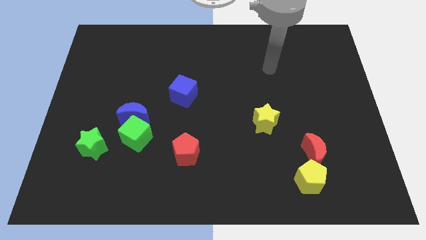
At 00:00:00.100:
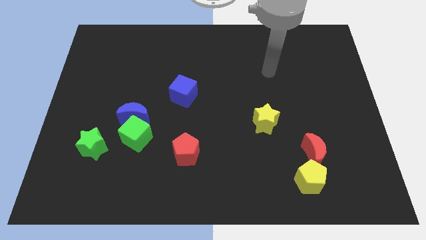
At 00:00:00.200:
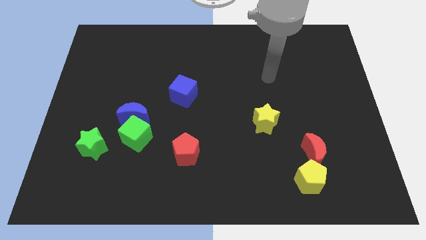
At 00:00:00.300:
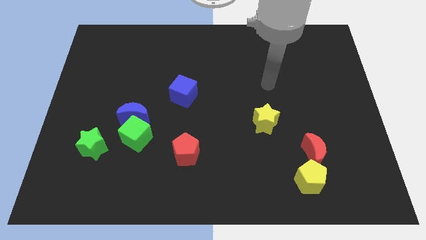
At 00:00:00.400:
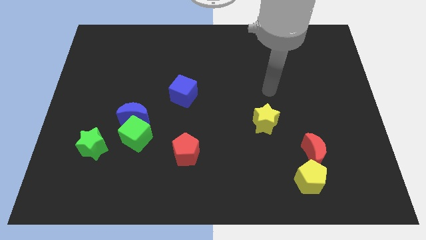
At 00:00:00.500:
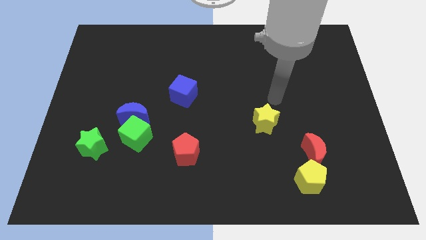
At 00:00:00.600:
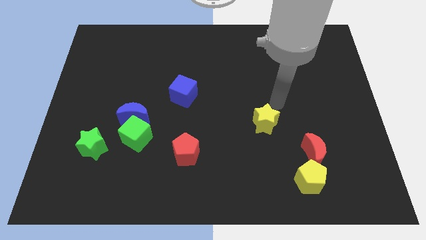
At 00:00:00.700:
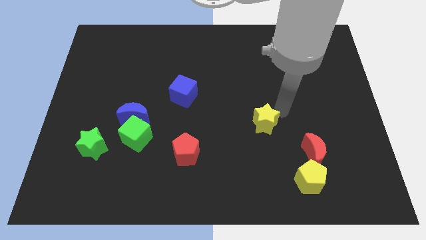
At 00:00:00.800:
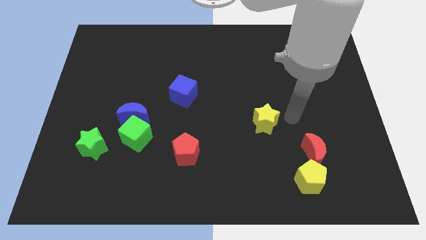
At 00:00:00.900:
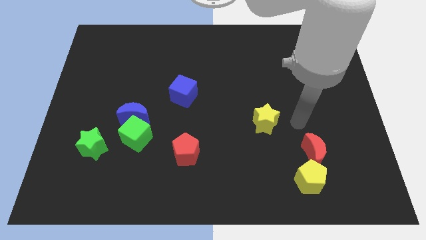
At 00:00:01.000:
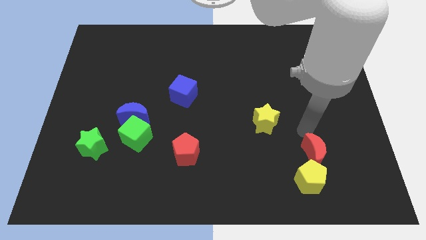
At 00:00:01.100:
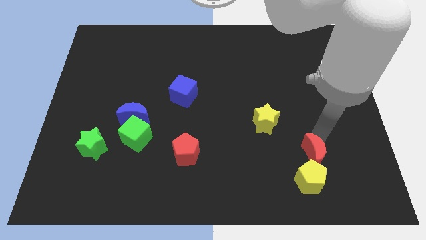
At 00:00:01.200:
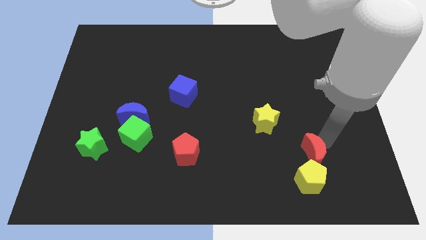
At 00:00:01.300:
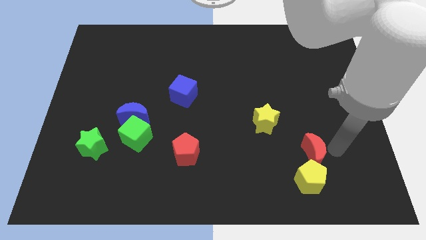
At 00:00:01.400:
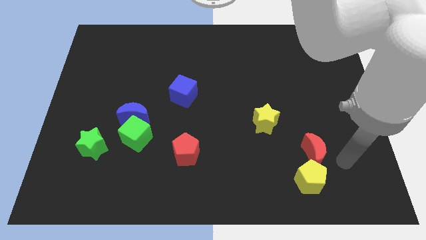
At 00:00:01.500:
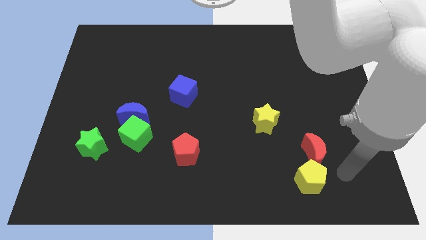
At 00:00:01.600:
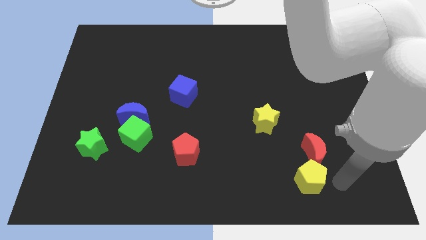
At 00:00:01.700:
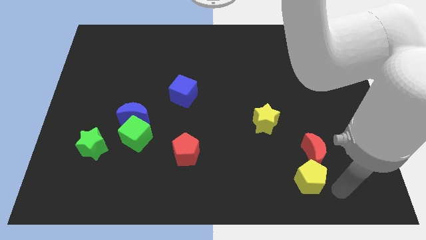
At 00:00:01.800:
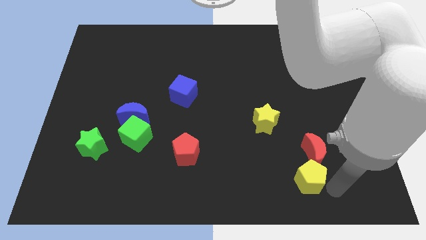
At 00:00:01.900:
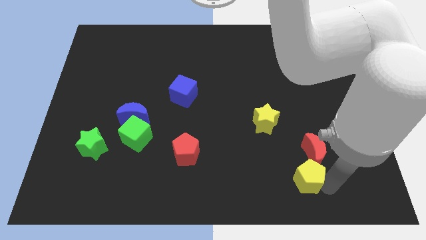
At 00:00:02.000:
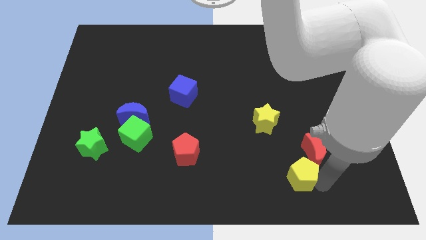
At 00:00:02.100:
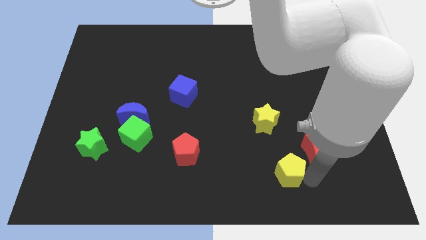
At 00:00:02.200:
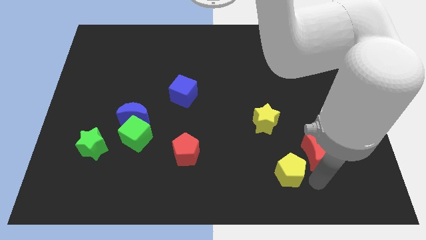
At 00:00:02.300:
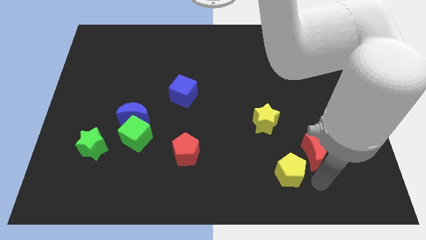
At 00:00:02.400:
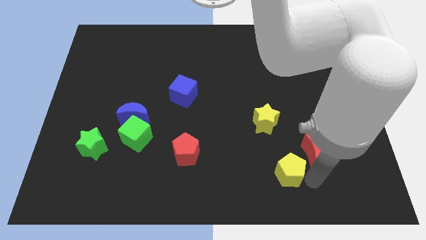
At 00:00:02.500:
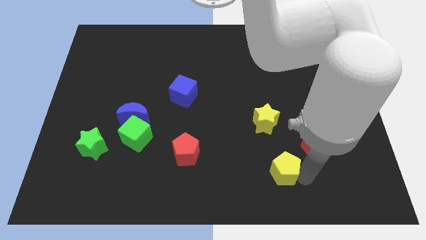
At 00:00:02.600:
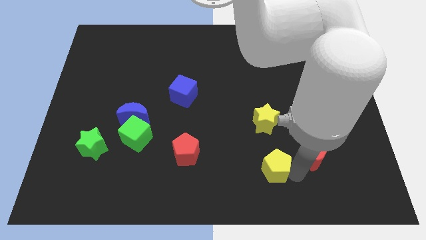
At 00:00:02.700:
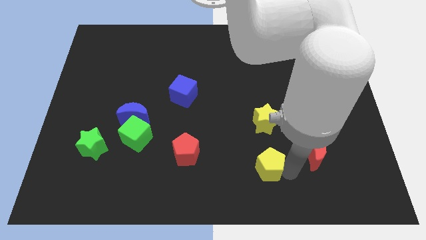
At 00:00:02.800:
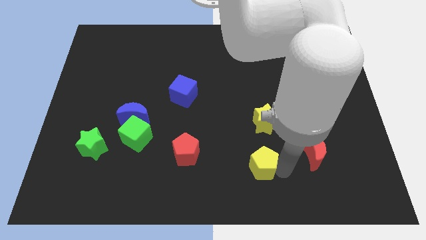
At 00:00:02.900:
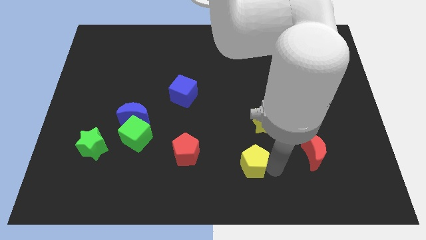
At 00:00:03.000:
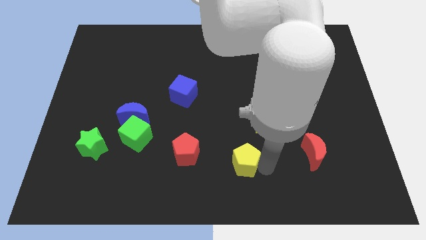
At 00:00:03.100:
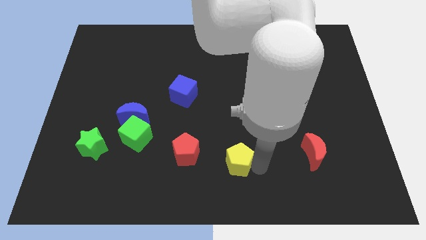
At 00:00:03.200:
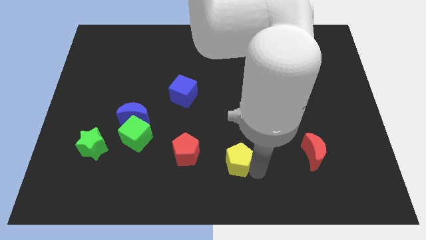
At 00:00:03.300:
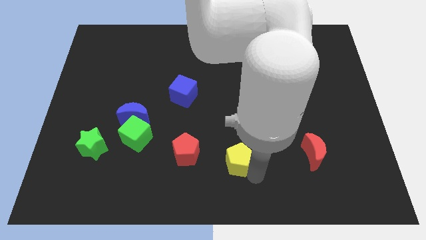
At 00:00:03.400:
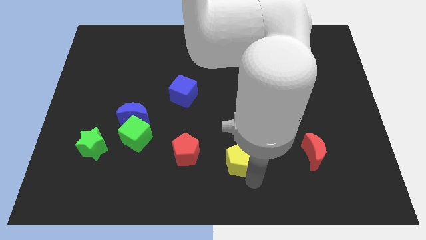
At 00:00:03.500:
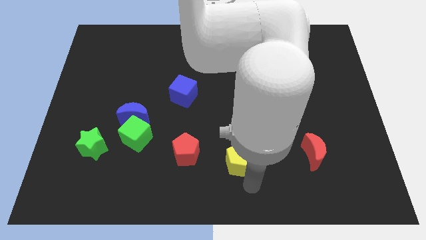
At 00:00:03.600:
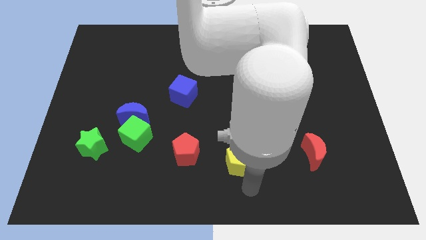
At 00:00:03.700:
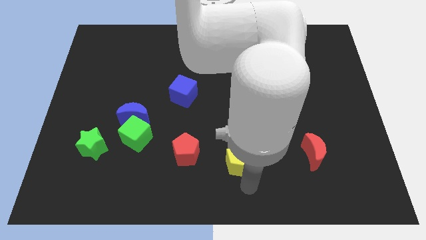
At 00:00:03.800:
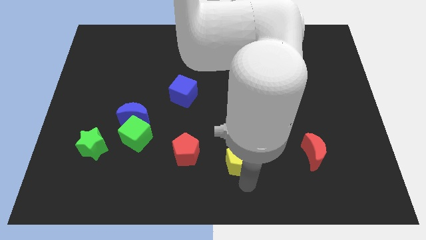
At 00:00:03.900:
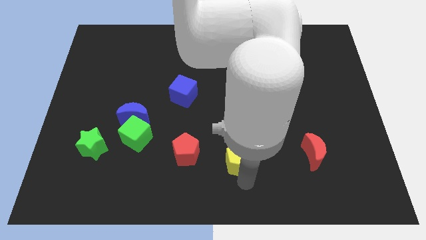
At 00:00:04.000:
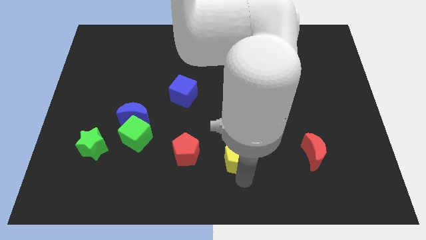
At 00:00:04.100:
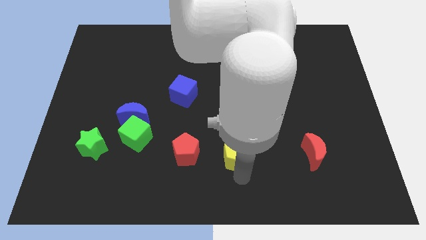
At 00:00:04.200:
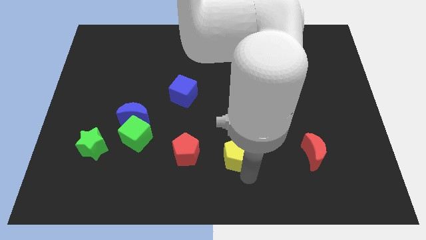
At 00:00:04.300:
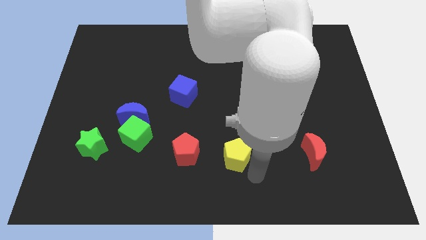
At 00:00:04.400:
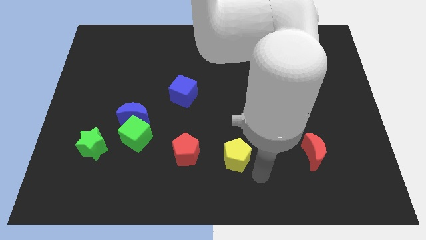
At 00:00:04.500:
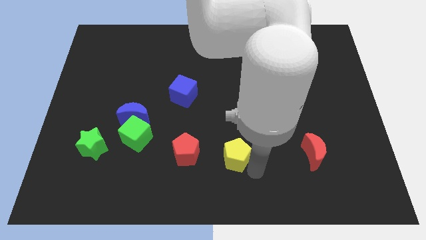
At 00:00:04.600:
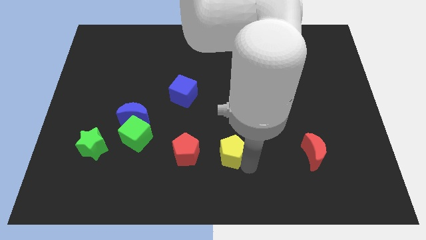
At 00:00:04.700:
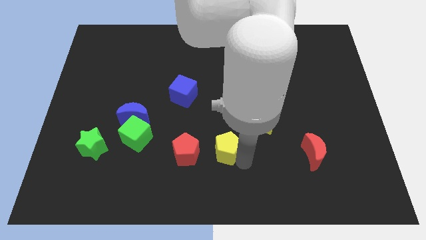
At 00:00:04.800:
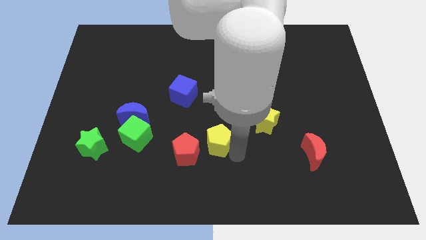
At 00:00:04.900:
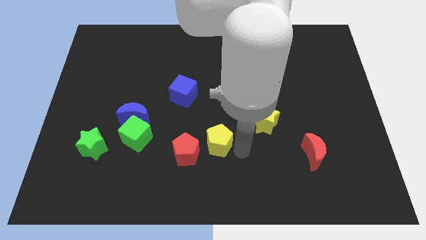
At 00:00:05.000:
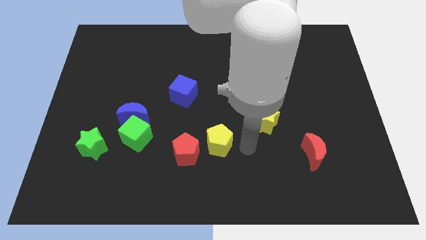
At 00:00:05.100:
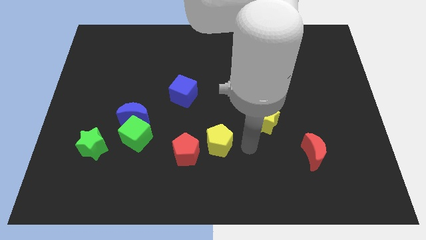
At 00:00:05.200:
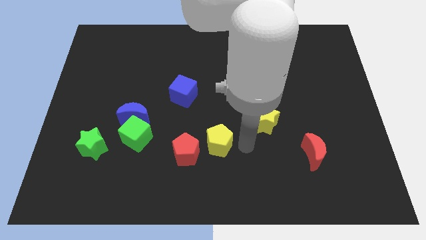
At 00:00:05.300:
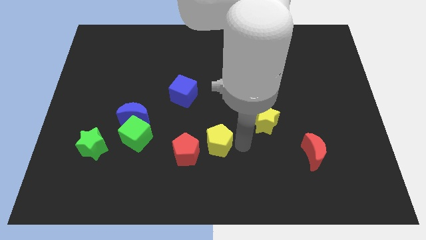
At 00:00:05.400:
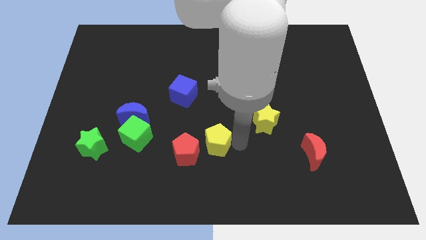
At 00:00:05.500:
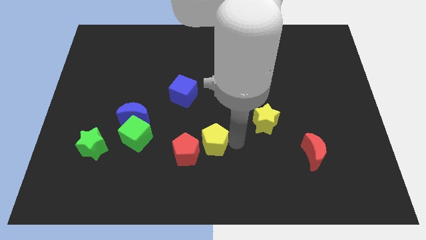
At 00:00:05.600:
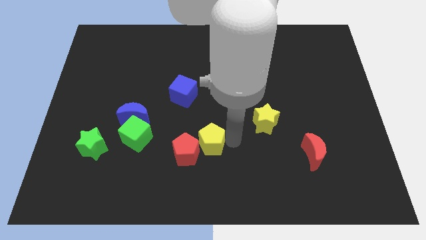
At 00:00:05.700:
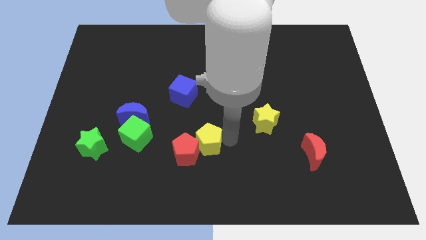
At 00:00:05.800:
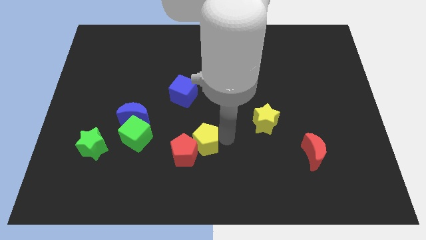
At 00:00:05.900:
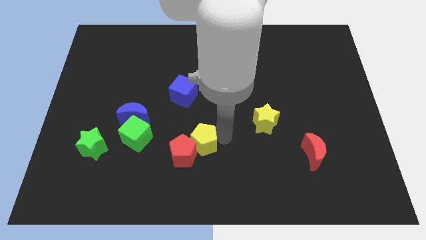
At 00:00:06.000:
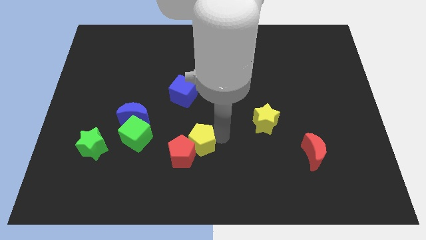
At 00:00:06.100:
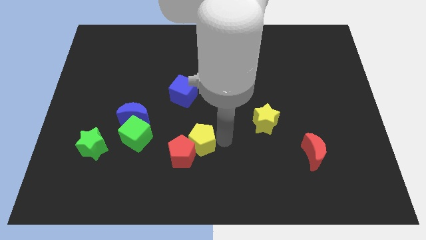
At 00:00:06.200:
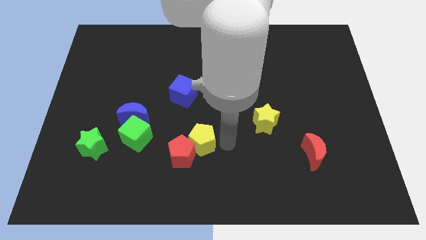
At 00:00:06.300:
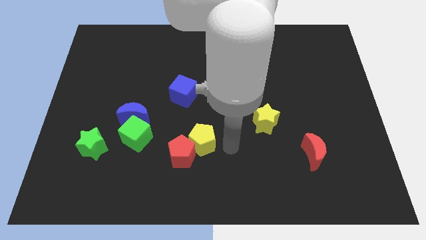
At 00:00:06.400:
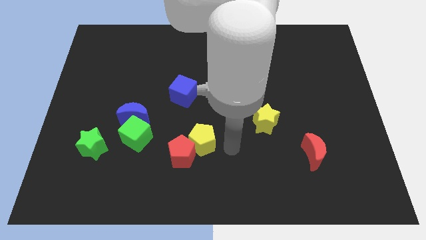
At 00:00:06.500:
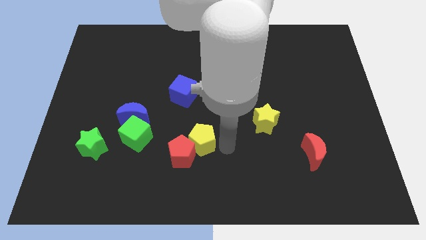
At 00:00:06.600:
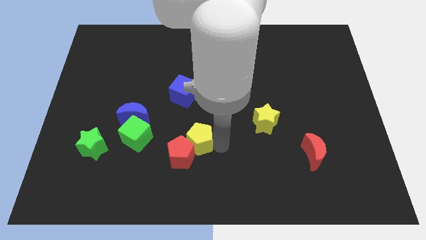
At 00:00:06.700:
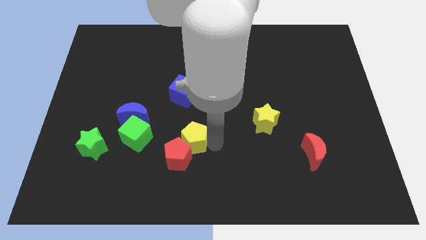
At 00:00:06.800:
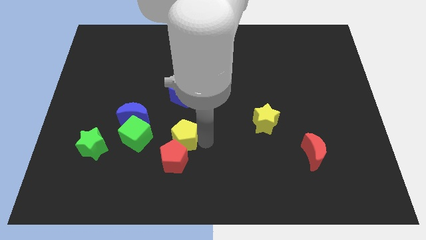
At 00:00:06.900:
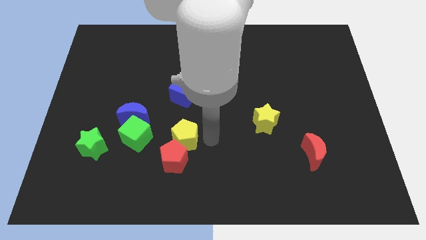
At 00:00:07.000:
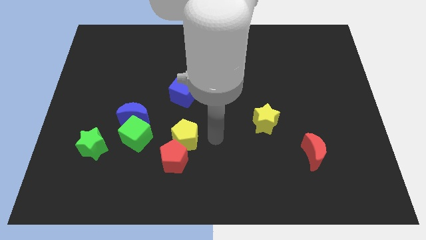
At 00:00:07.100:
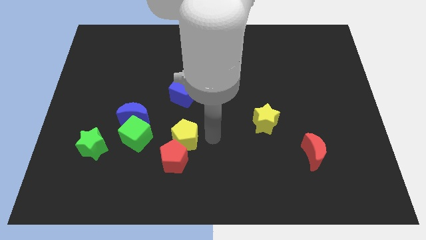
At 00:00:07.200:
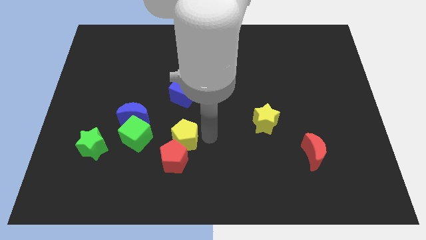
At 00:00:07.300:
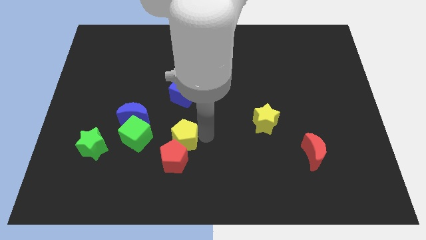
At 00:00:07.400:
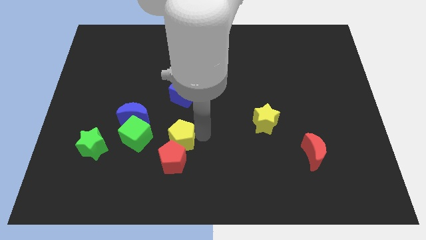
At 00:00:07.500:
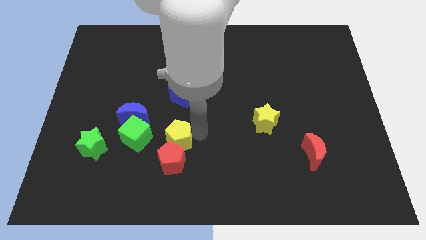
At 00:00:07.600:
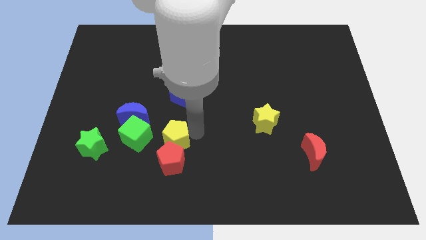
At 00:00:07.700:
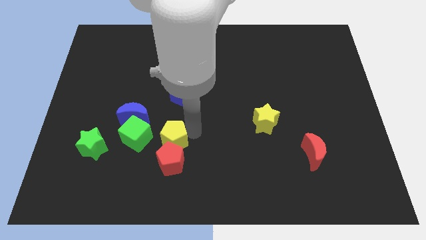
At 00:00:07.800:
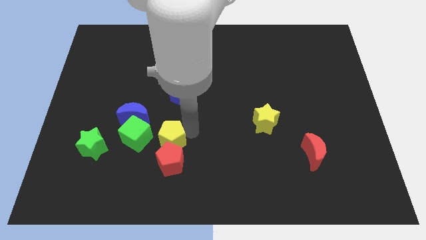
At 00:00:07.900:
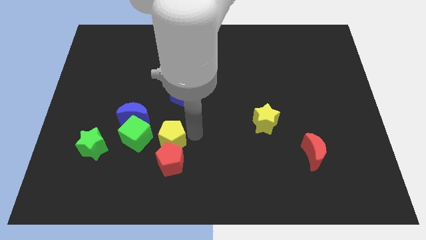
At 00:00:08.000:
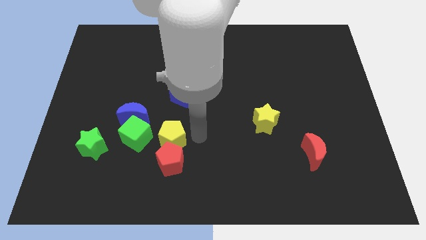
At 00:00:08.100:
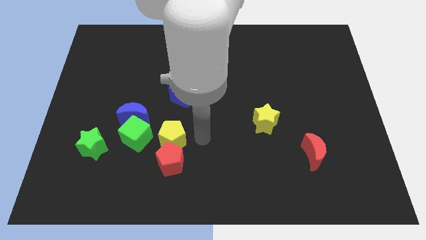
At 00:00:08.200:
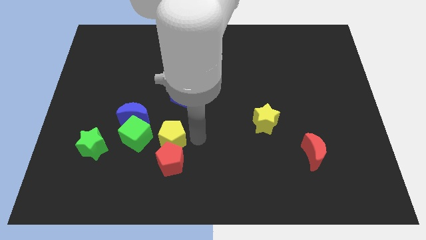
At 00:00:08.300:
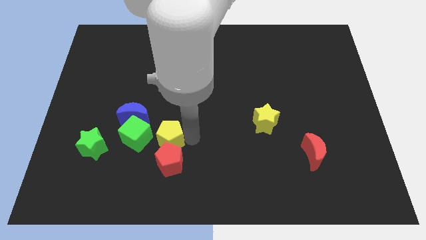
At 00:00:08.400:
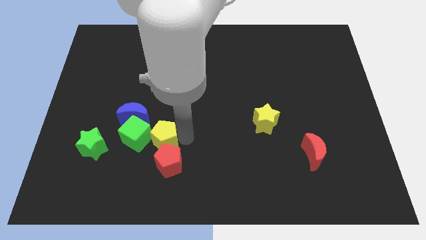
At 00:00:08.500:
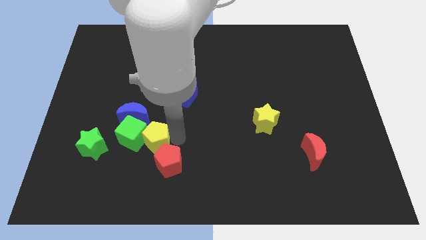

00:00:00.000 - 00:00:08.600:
move the yellow pentagon towards the green cube
